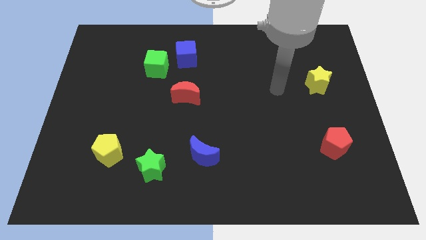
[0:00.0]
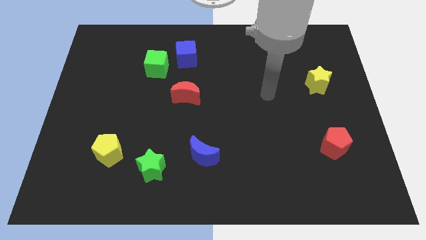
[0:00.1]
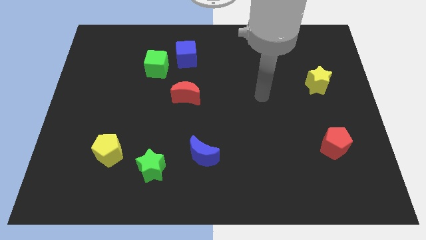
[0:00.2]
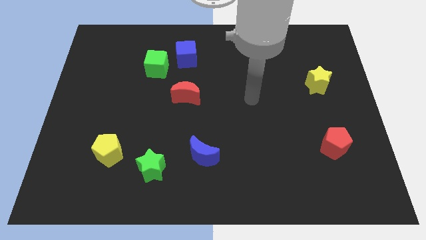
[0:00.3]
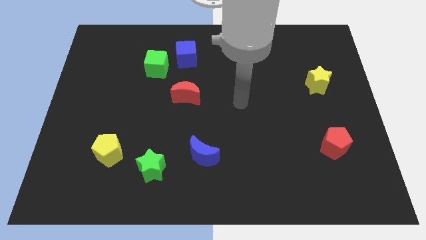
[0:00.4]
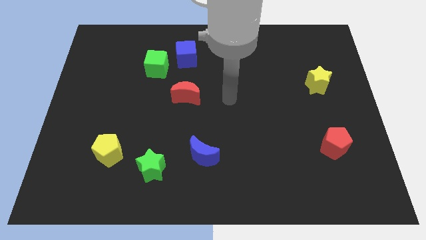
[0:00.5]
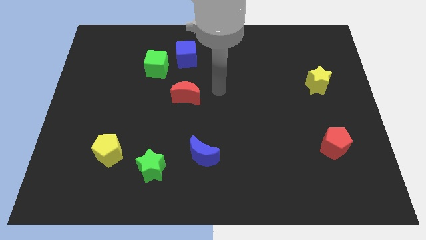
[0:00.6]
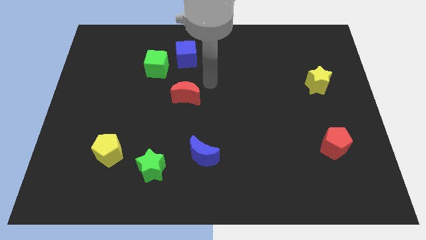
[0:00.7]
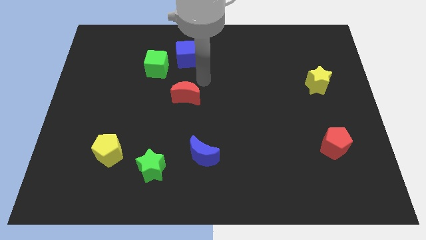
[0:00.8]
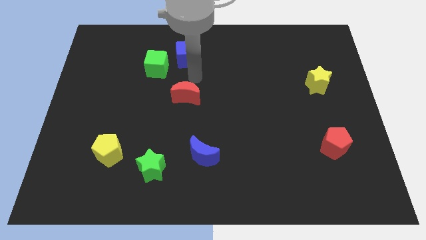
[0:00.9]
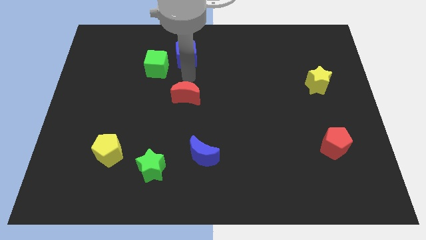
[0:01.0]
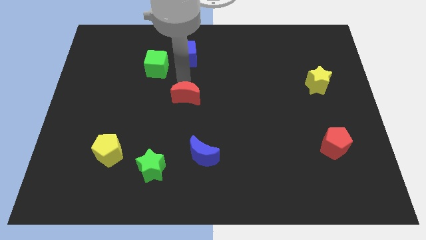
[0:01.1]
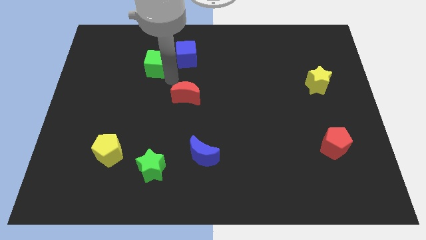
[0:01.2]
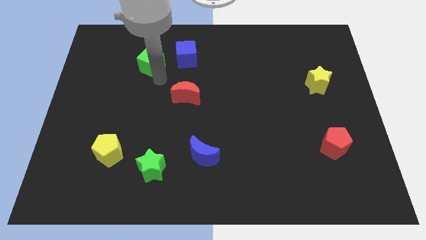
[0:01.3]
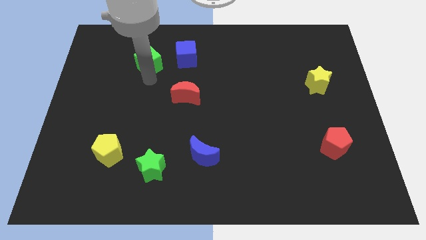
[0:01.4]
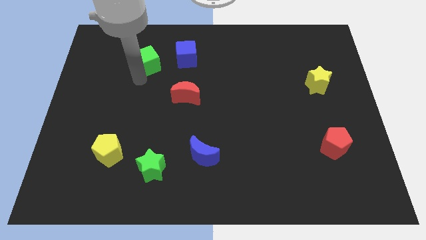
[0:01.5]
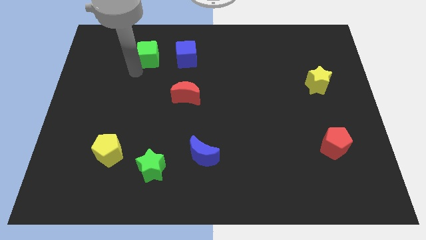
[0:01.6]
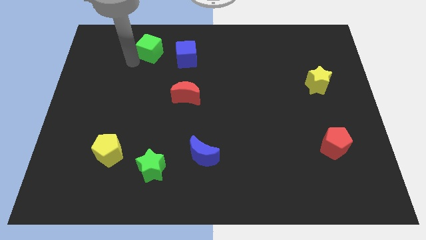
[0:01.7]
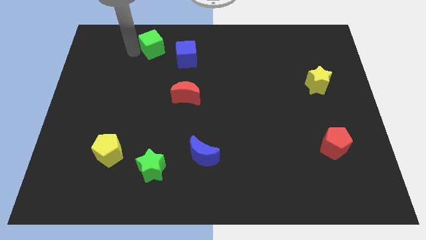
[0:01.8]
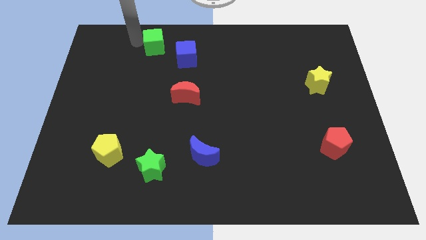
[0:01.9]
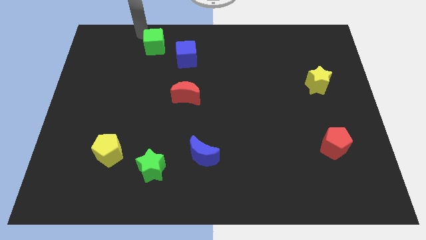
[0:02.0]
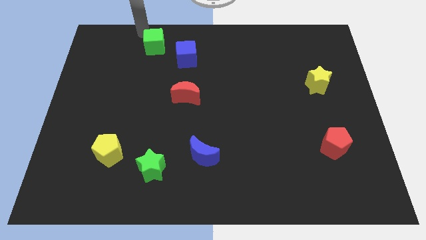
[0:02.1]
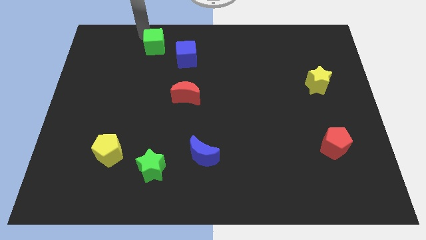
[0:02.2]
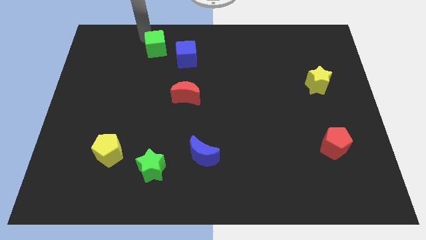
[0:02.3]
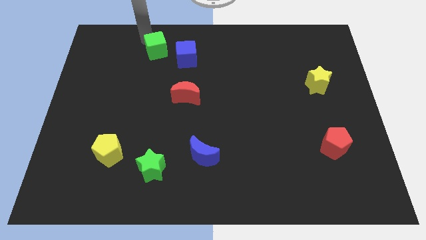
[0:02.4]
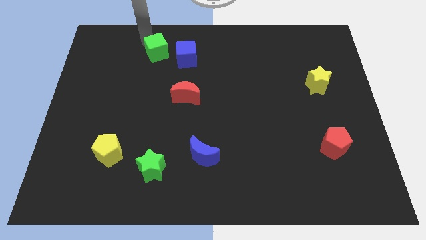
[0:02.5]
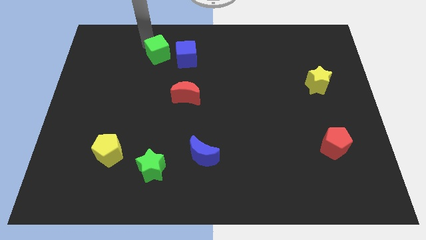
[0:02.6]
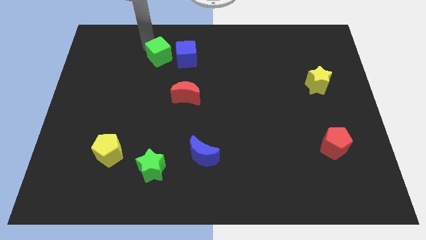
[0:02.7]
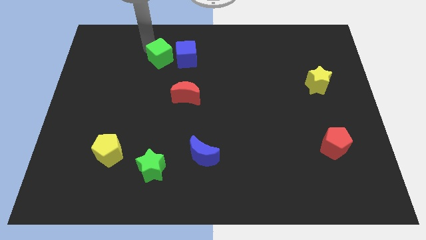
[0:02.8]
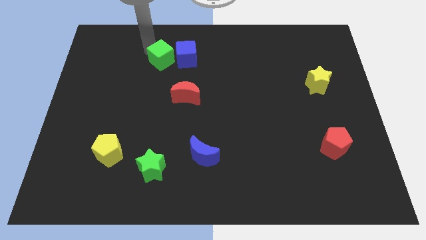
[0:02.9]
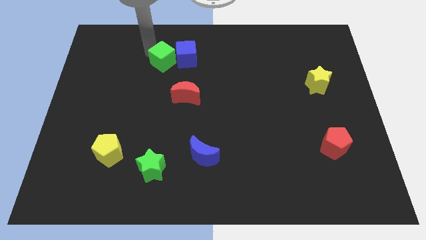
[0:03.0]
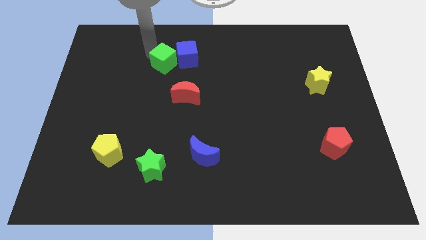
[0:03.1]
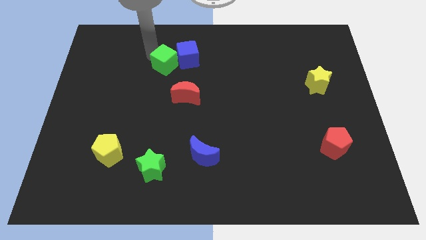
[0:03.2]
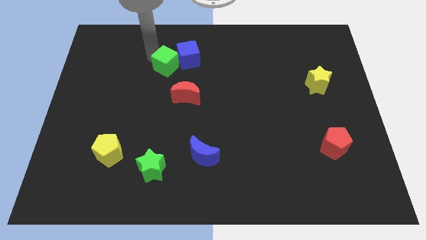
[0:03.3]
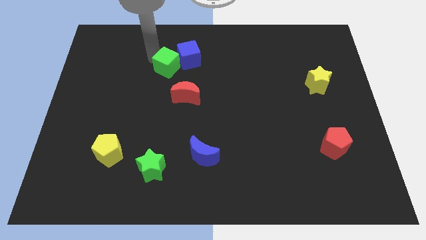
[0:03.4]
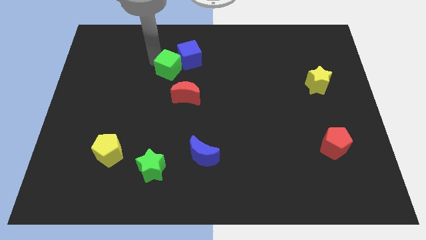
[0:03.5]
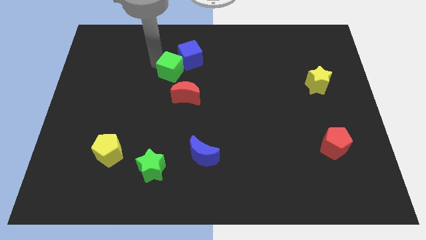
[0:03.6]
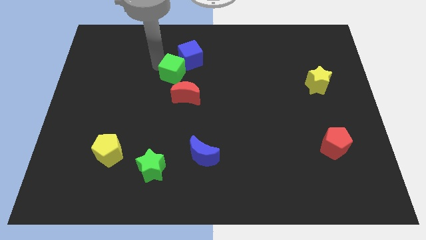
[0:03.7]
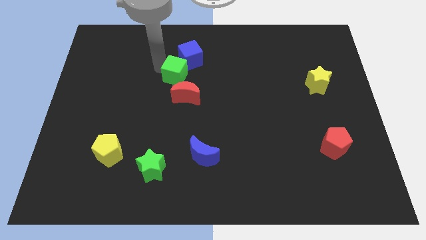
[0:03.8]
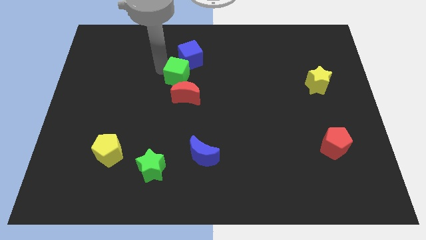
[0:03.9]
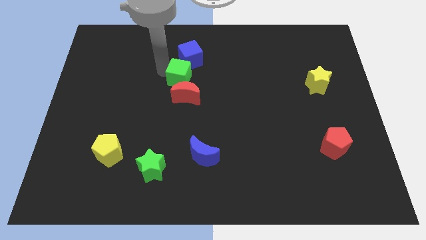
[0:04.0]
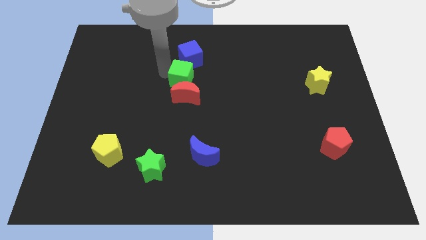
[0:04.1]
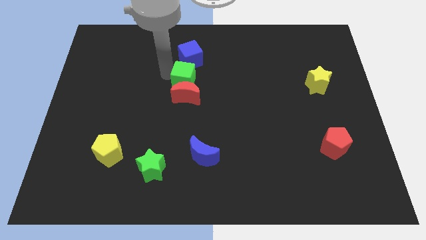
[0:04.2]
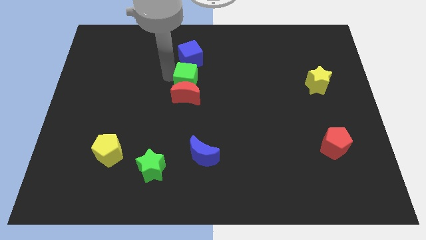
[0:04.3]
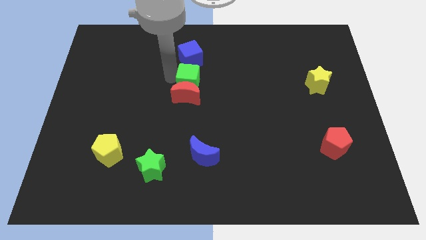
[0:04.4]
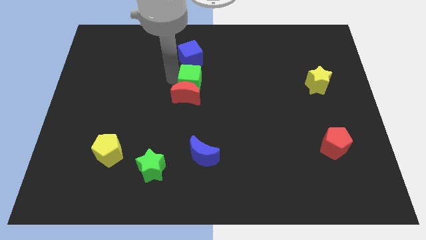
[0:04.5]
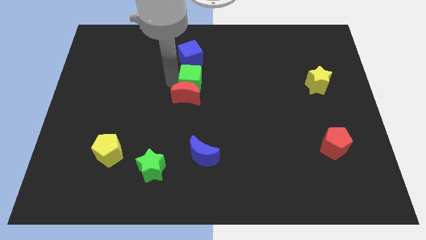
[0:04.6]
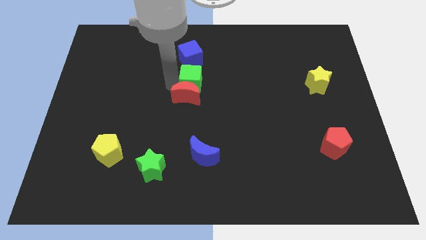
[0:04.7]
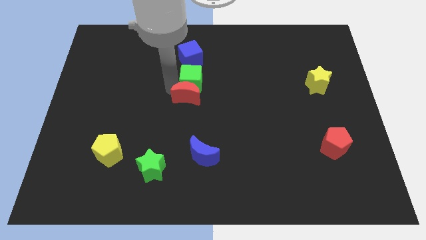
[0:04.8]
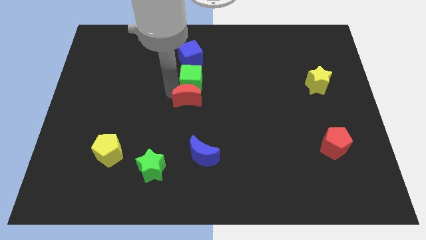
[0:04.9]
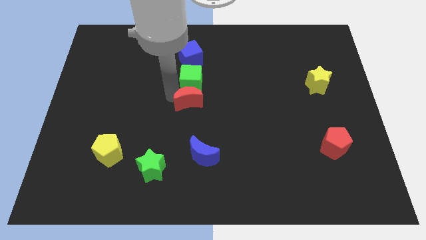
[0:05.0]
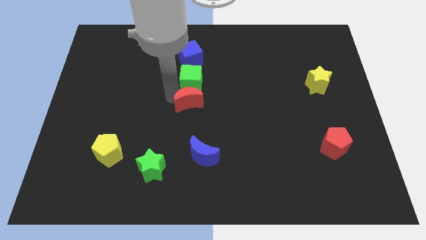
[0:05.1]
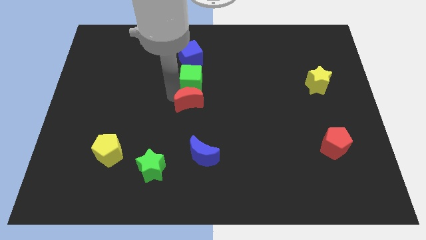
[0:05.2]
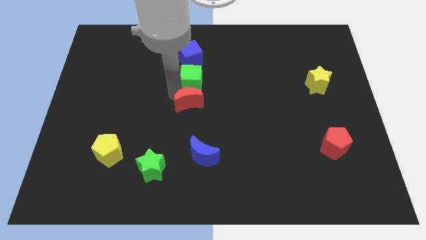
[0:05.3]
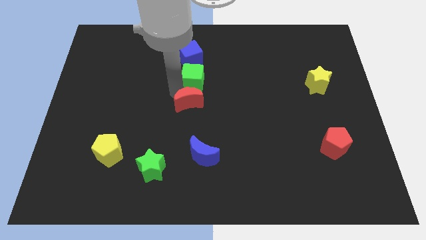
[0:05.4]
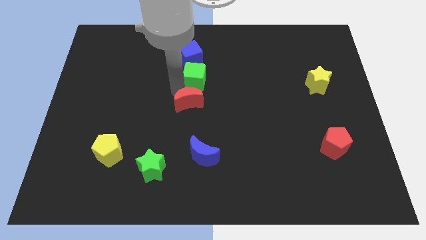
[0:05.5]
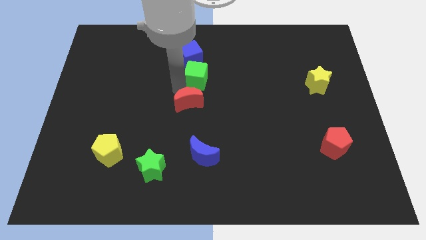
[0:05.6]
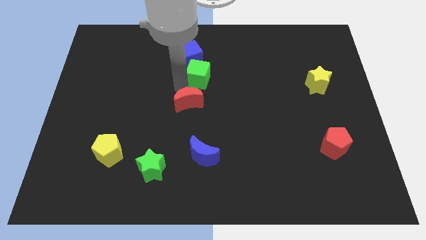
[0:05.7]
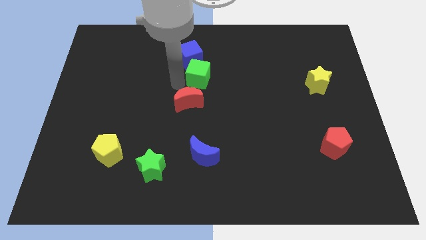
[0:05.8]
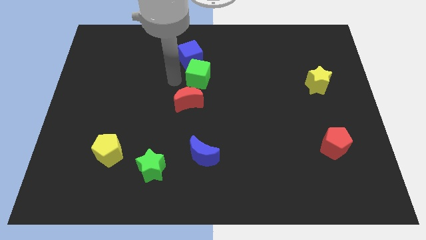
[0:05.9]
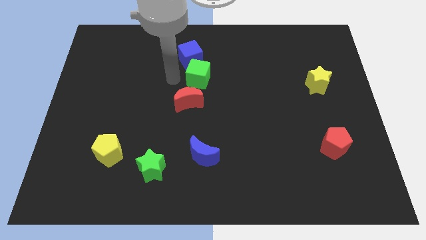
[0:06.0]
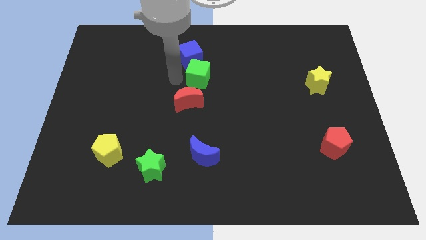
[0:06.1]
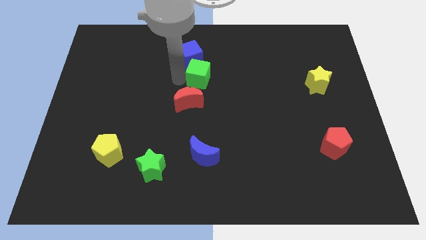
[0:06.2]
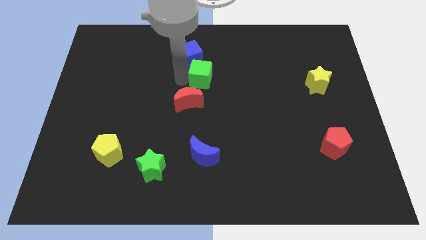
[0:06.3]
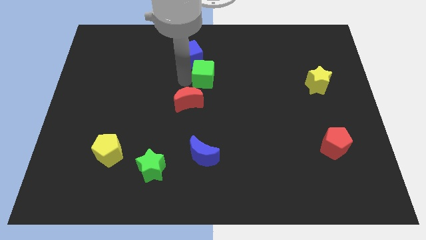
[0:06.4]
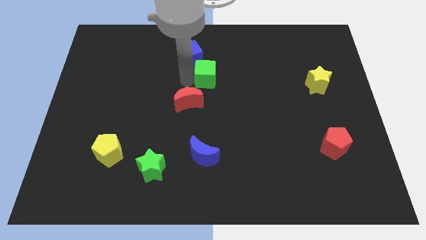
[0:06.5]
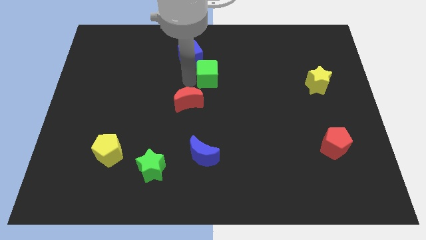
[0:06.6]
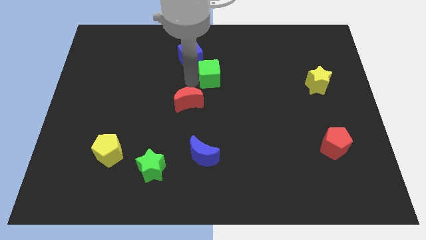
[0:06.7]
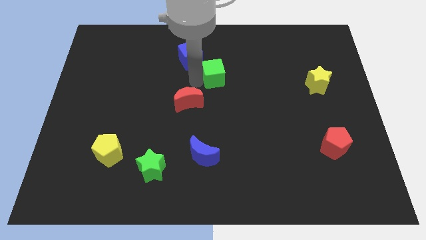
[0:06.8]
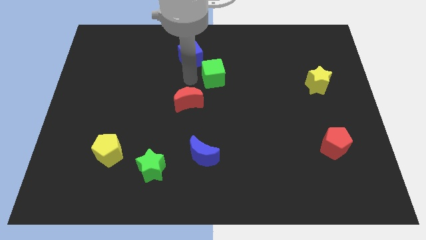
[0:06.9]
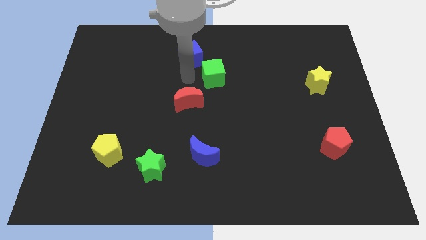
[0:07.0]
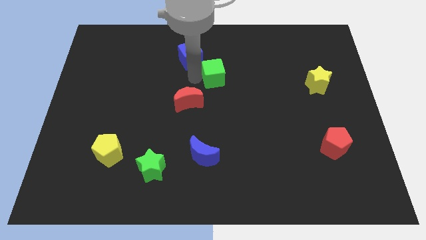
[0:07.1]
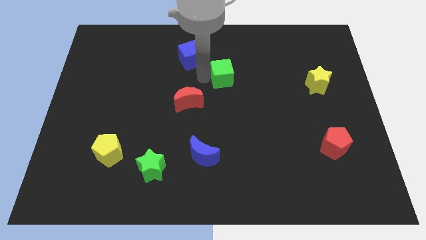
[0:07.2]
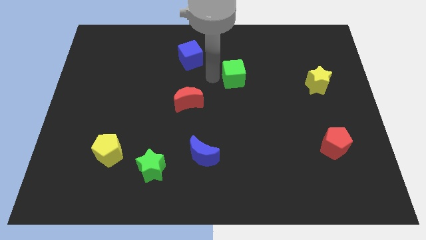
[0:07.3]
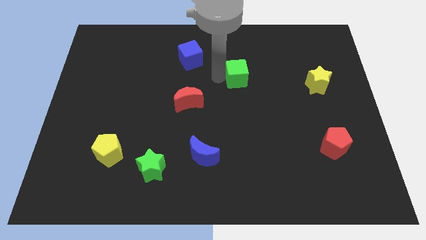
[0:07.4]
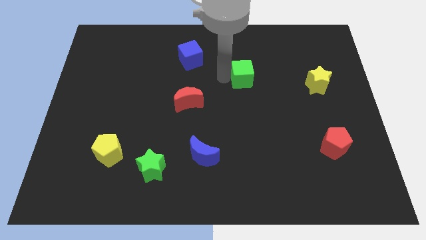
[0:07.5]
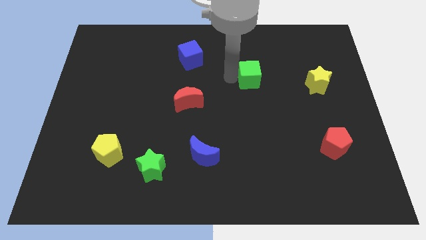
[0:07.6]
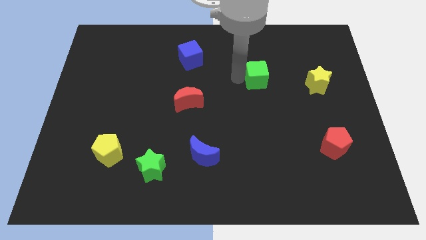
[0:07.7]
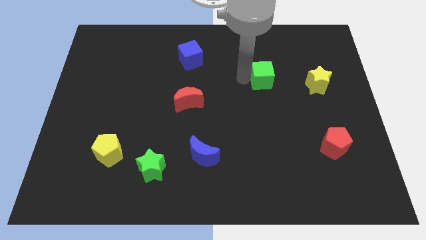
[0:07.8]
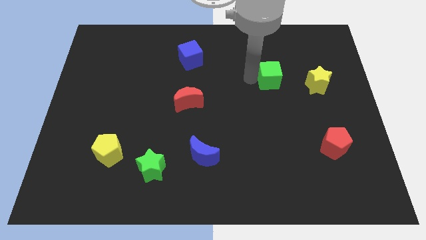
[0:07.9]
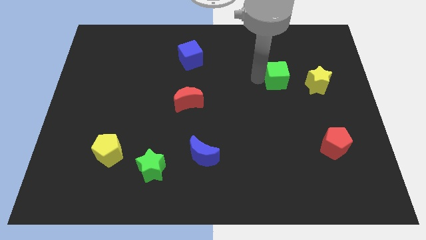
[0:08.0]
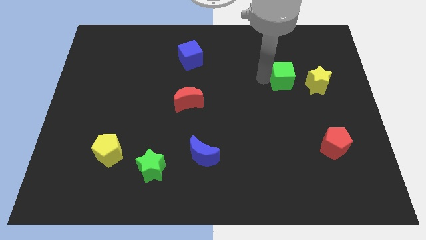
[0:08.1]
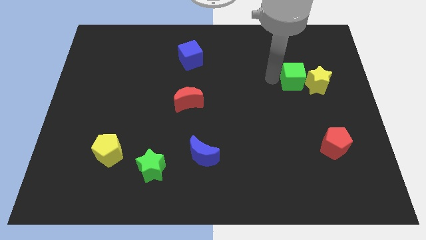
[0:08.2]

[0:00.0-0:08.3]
move the green cube close to the yellow star
